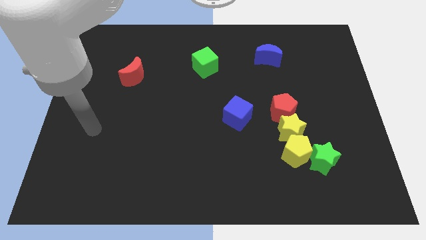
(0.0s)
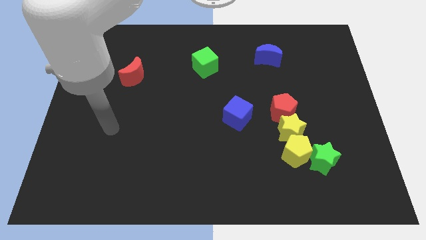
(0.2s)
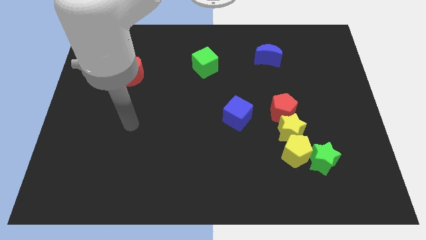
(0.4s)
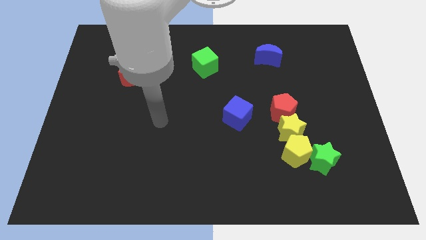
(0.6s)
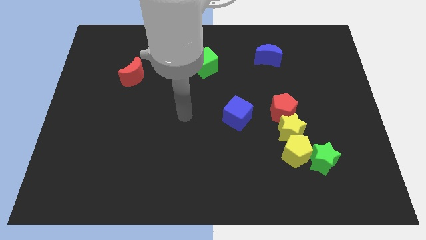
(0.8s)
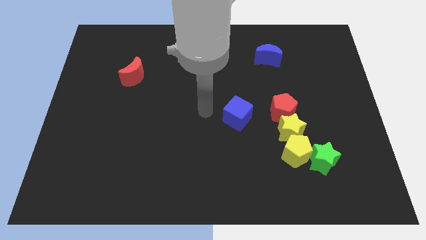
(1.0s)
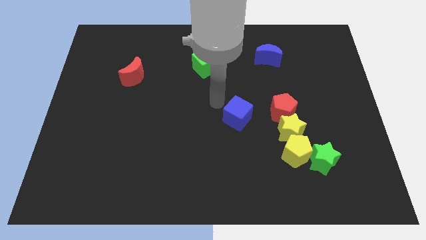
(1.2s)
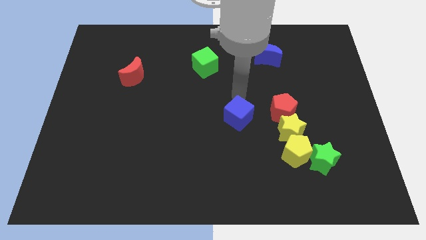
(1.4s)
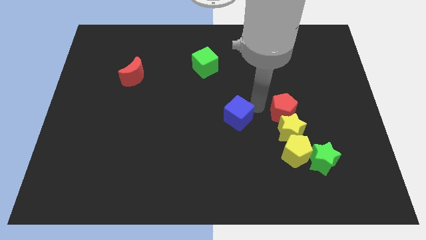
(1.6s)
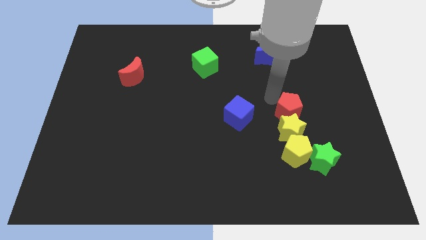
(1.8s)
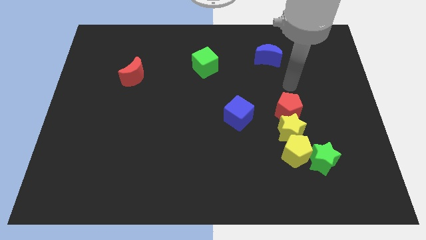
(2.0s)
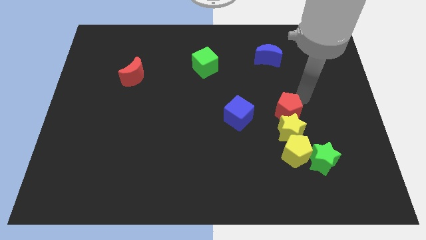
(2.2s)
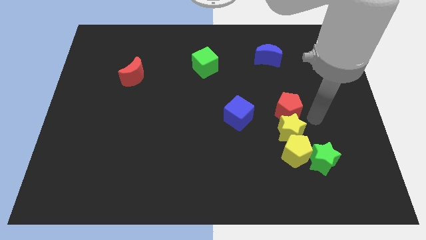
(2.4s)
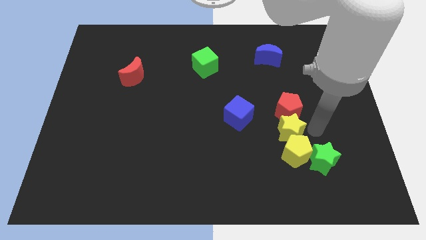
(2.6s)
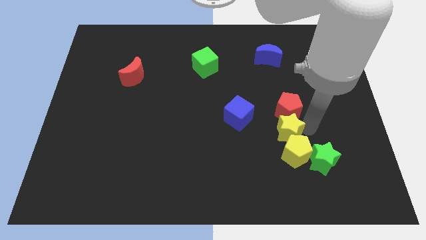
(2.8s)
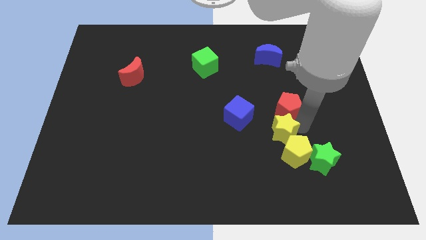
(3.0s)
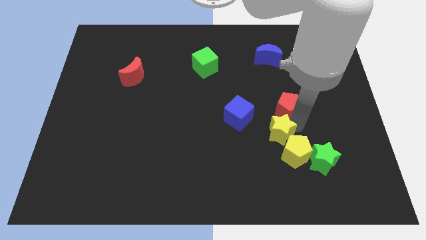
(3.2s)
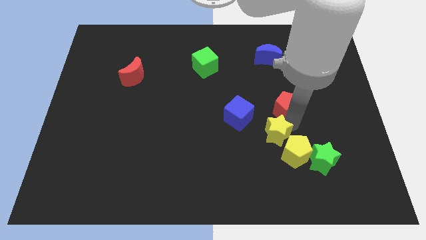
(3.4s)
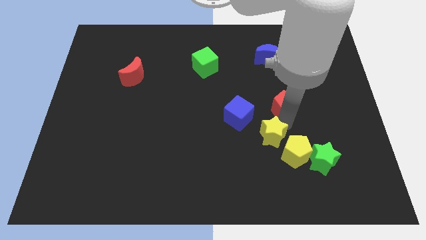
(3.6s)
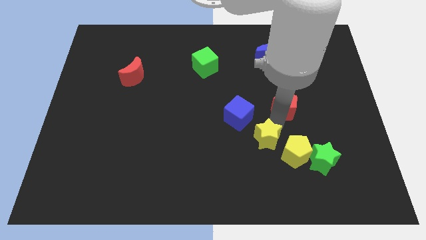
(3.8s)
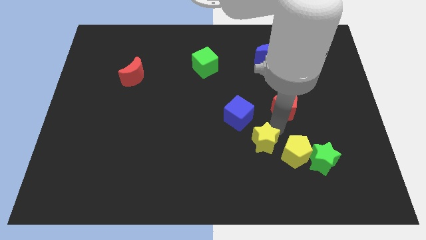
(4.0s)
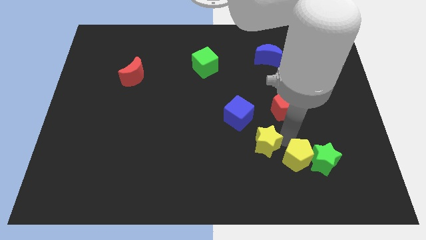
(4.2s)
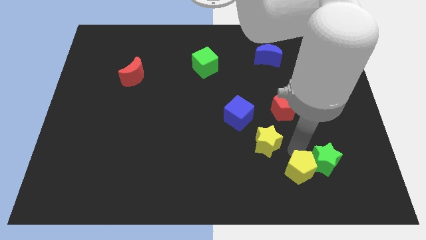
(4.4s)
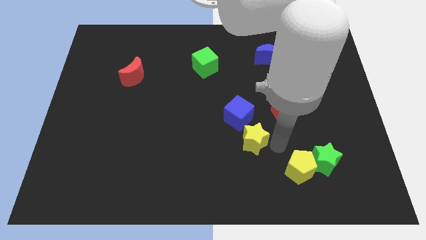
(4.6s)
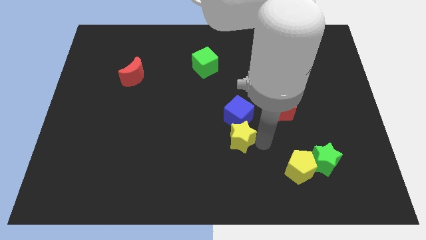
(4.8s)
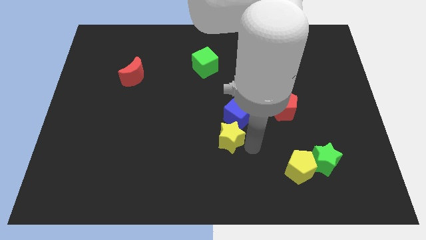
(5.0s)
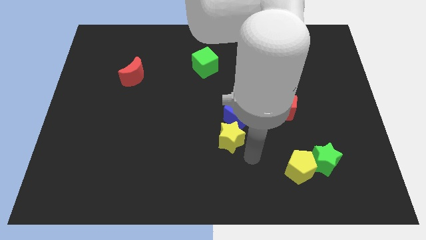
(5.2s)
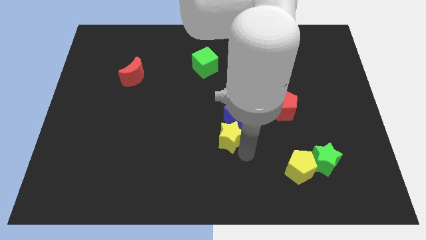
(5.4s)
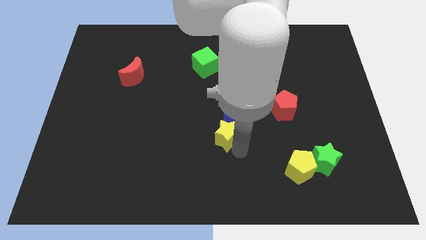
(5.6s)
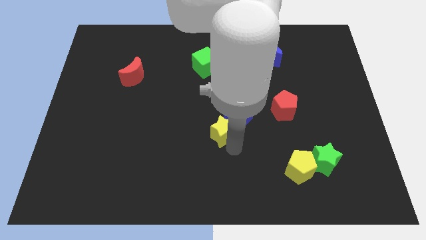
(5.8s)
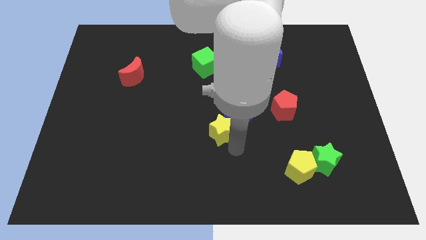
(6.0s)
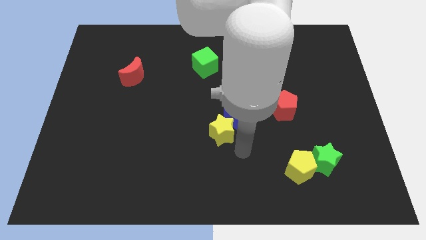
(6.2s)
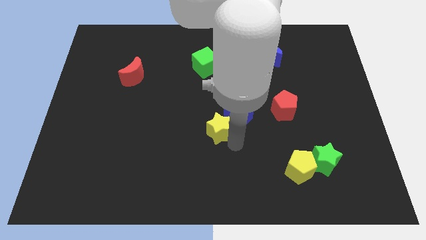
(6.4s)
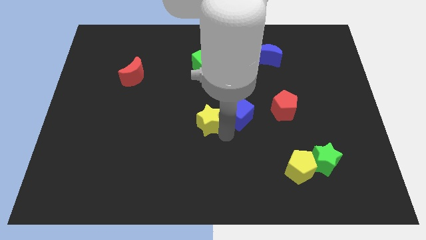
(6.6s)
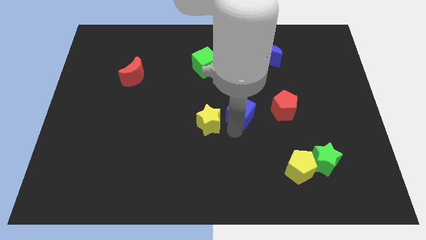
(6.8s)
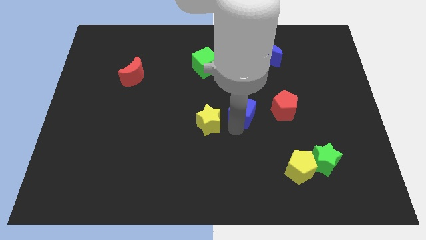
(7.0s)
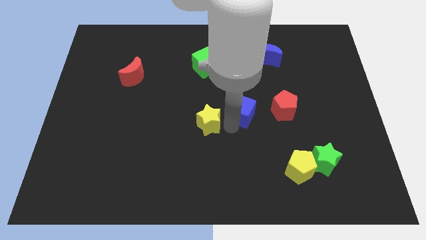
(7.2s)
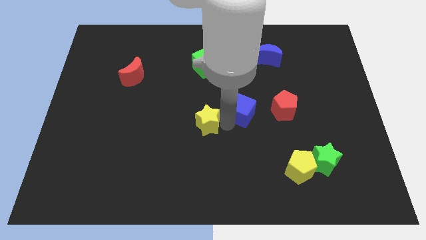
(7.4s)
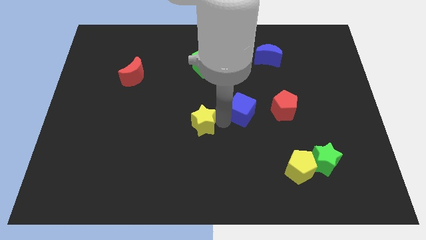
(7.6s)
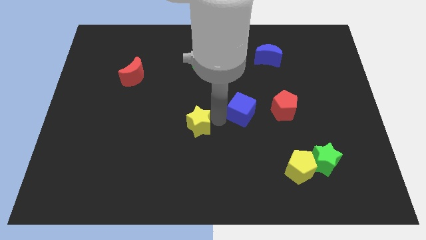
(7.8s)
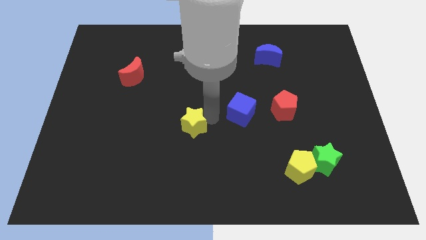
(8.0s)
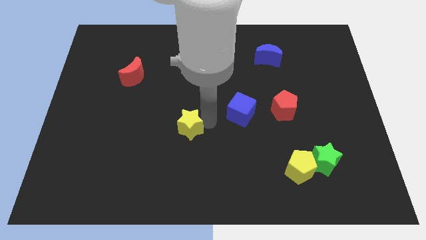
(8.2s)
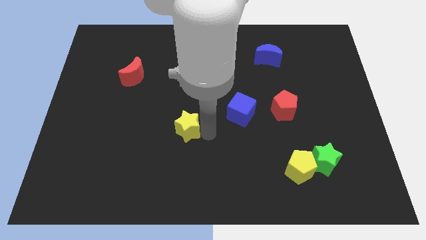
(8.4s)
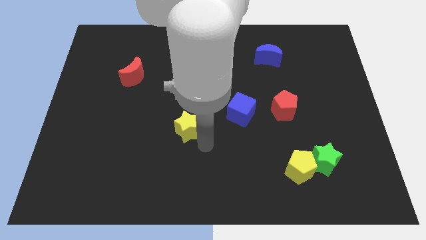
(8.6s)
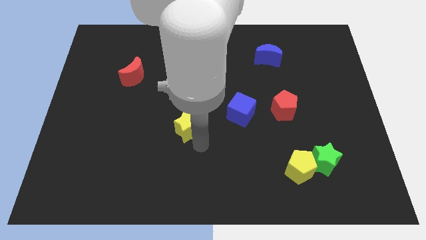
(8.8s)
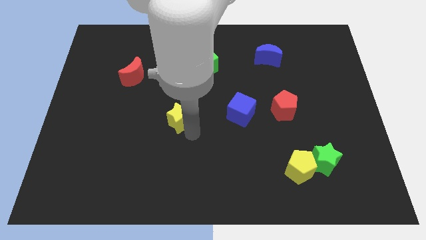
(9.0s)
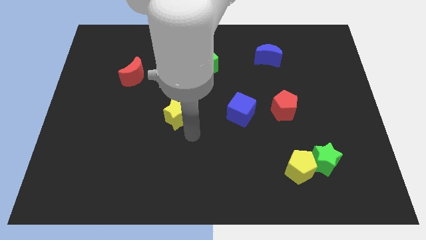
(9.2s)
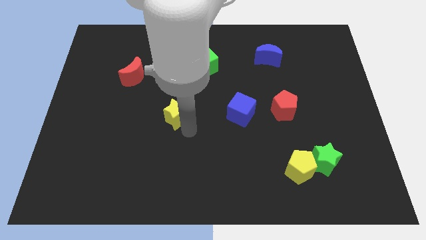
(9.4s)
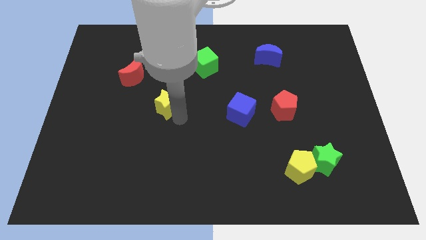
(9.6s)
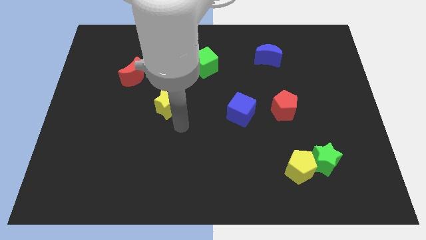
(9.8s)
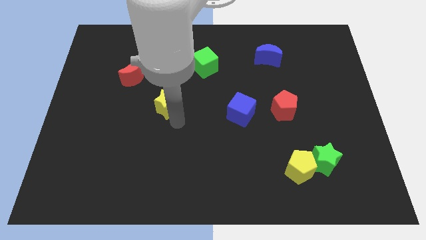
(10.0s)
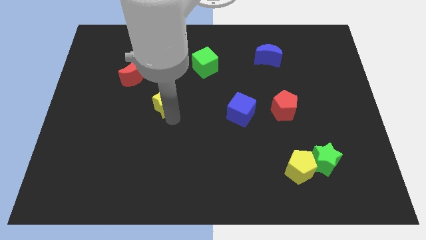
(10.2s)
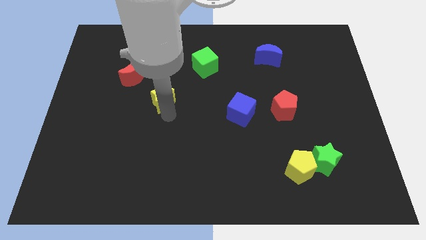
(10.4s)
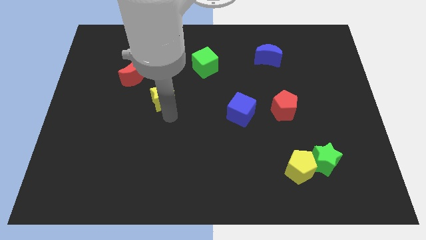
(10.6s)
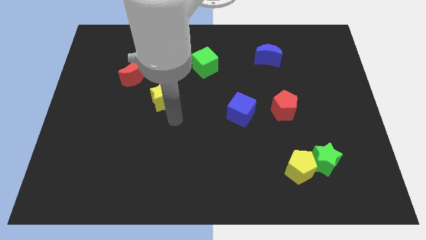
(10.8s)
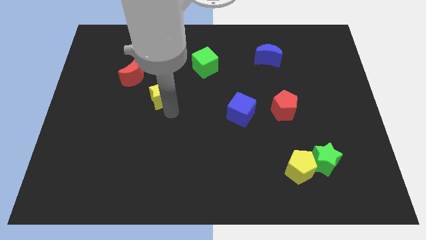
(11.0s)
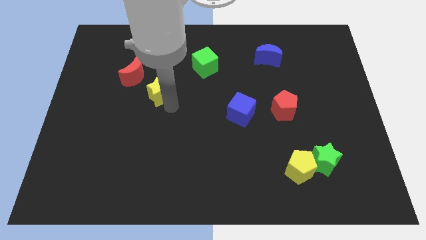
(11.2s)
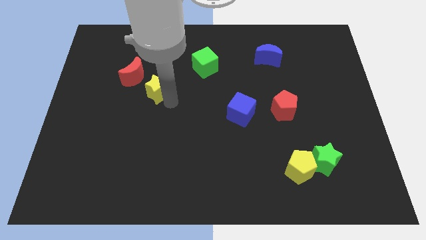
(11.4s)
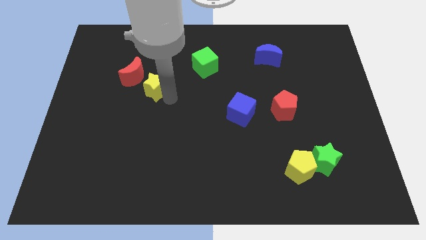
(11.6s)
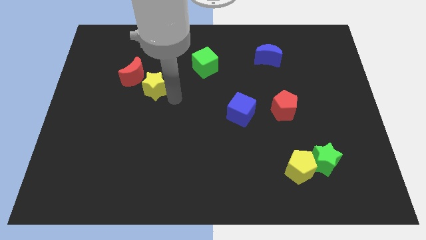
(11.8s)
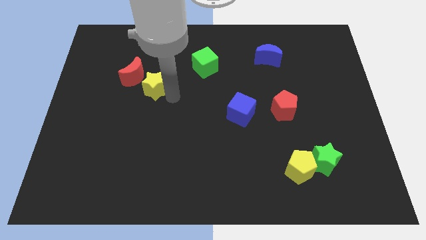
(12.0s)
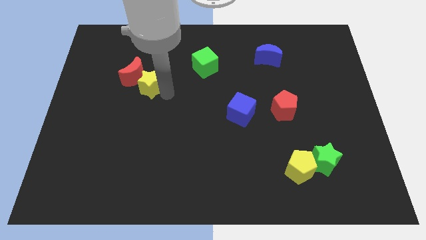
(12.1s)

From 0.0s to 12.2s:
put the yellow star towards the red moon

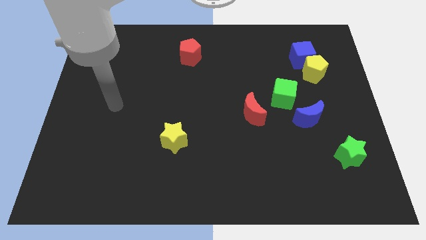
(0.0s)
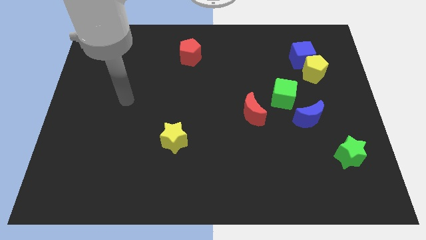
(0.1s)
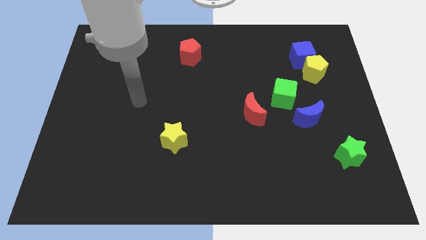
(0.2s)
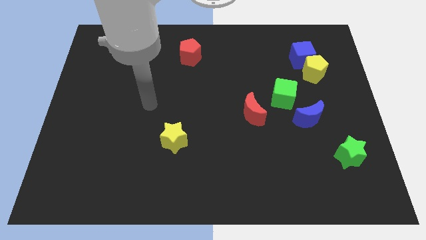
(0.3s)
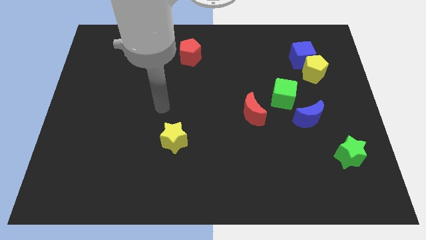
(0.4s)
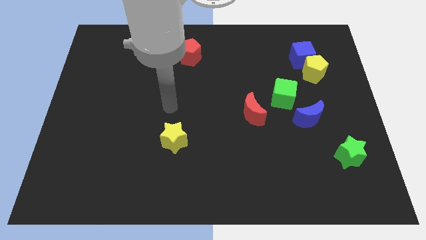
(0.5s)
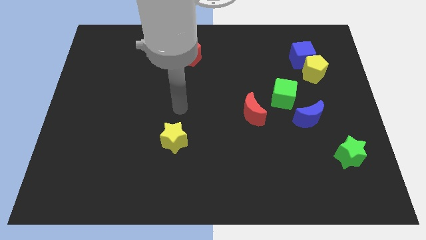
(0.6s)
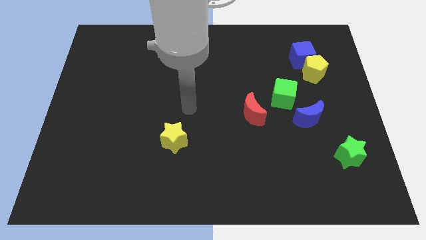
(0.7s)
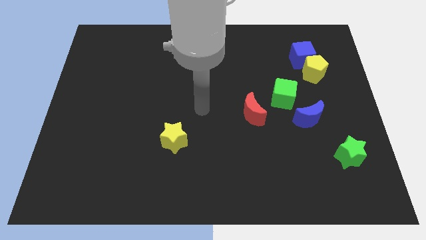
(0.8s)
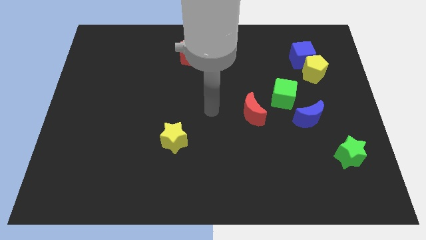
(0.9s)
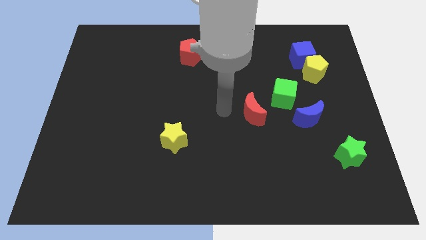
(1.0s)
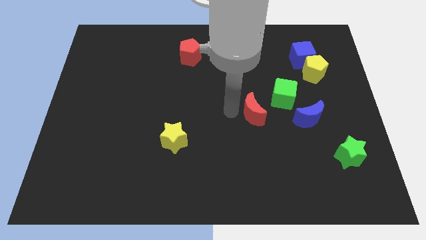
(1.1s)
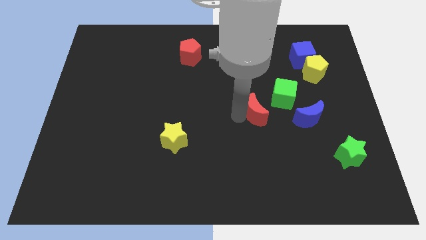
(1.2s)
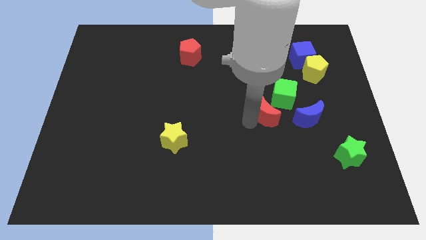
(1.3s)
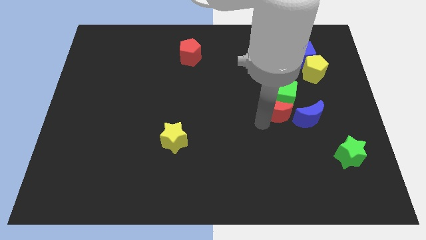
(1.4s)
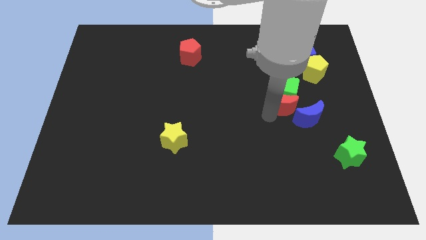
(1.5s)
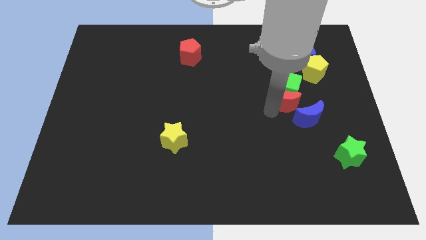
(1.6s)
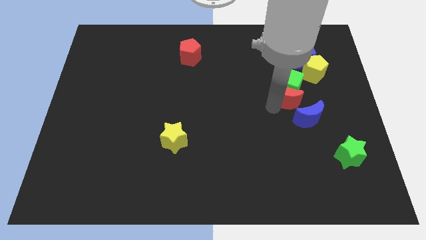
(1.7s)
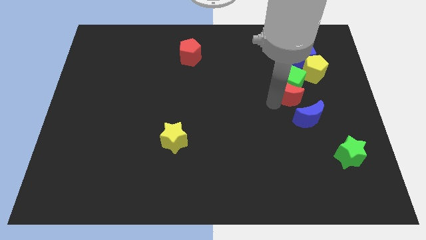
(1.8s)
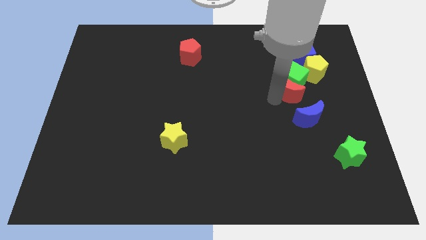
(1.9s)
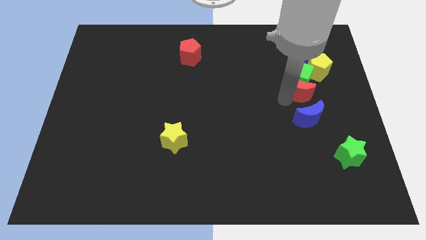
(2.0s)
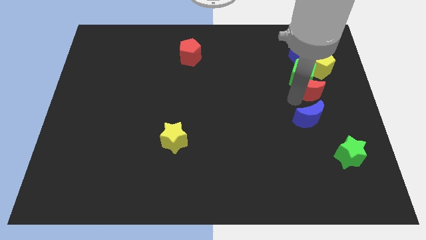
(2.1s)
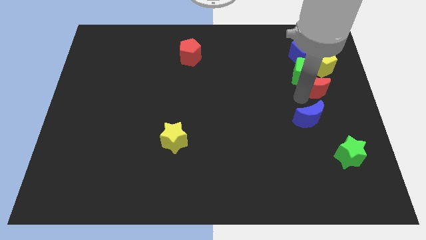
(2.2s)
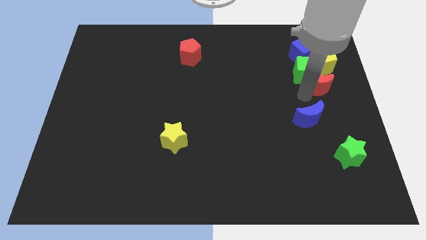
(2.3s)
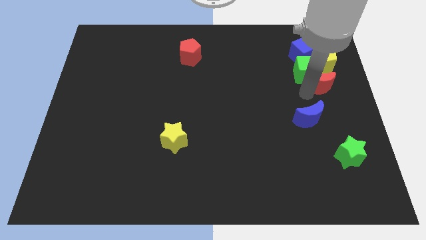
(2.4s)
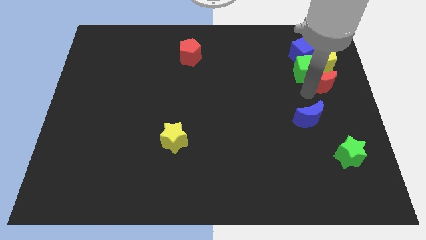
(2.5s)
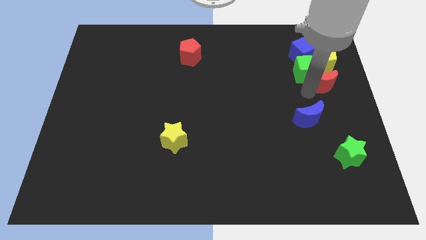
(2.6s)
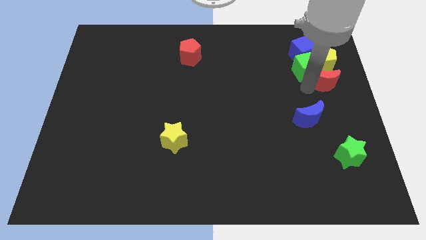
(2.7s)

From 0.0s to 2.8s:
put the green cube close to the blue cube
